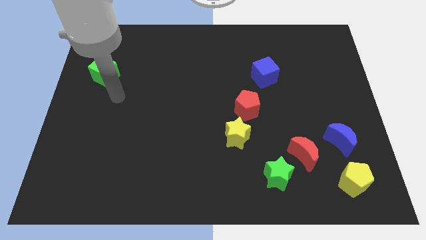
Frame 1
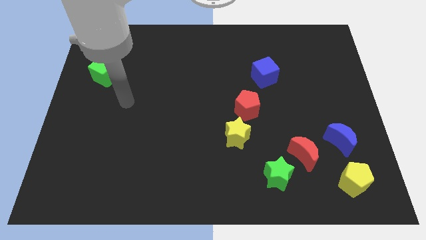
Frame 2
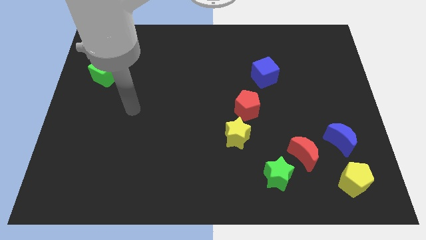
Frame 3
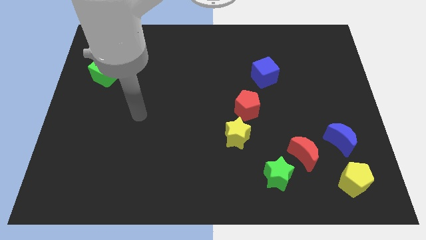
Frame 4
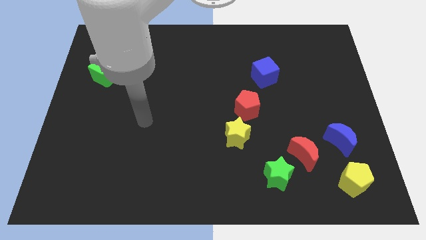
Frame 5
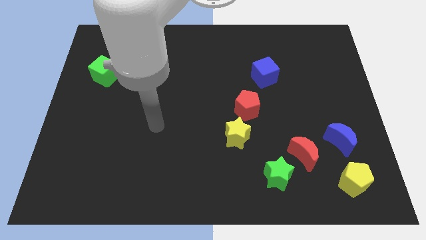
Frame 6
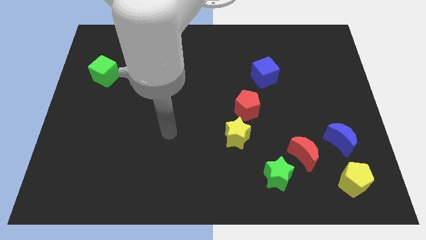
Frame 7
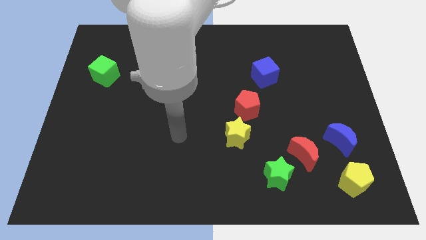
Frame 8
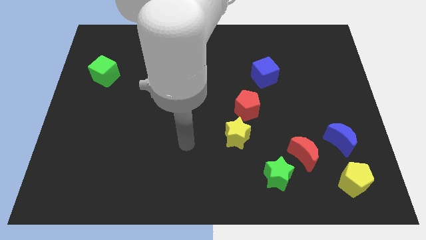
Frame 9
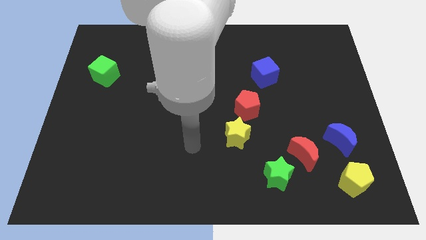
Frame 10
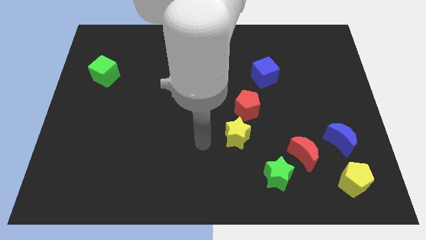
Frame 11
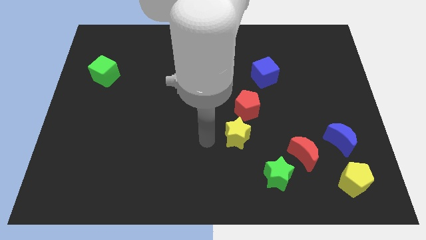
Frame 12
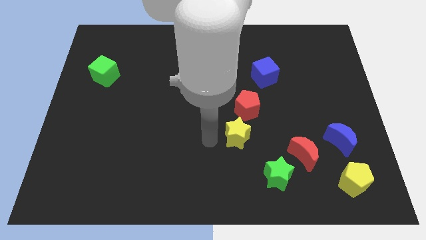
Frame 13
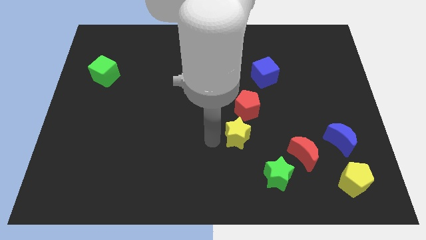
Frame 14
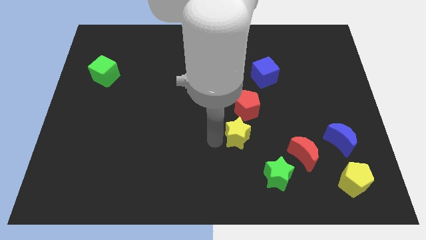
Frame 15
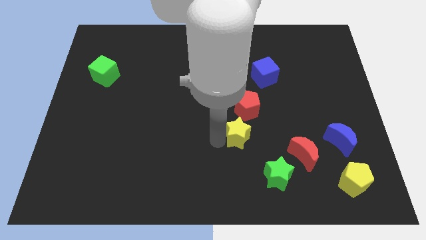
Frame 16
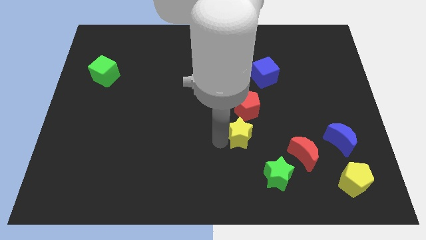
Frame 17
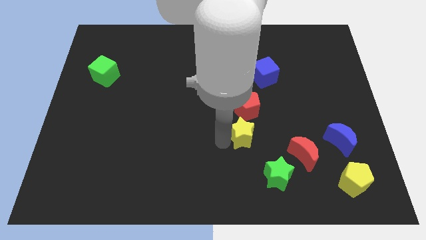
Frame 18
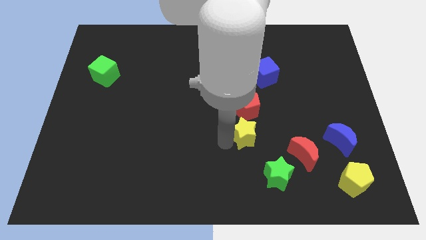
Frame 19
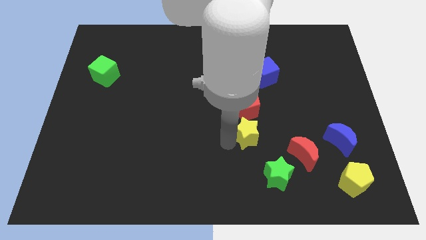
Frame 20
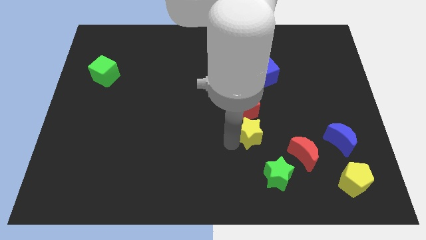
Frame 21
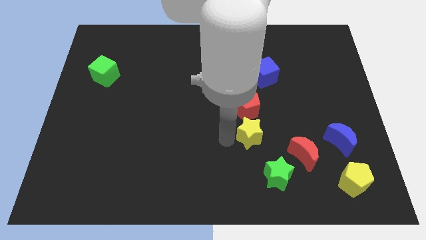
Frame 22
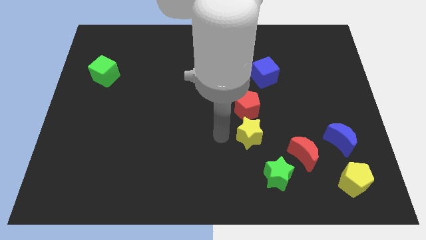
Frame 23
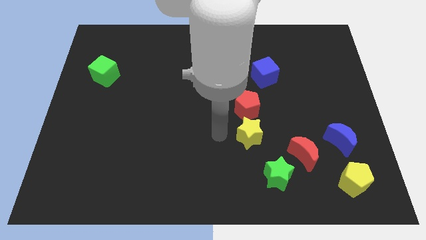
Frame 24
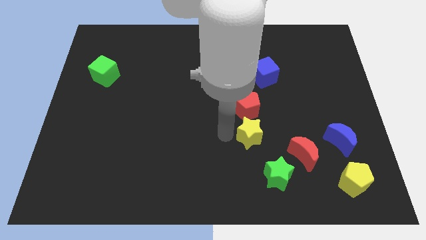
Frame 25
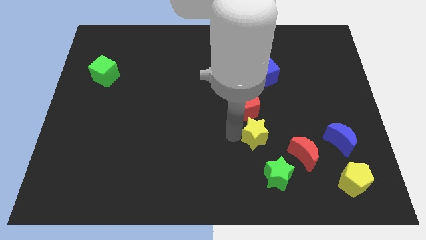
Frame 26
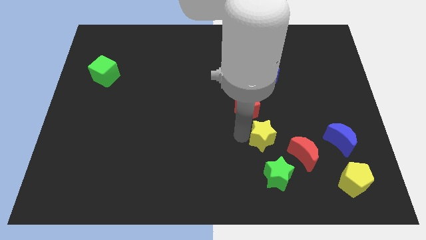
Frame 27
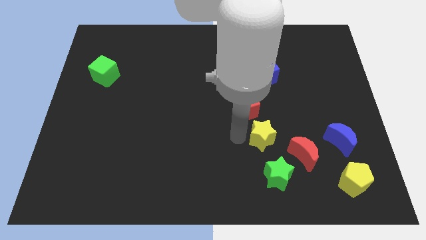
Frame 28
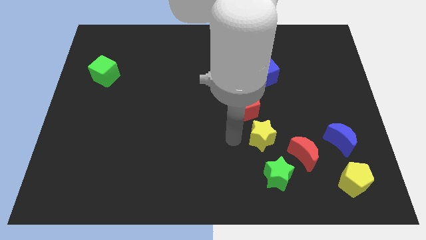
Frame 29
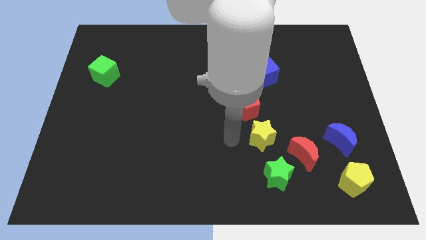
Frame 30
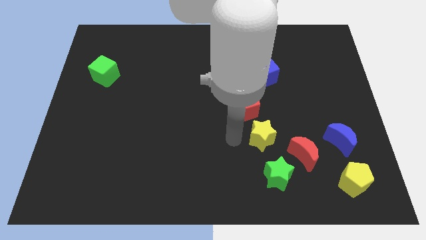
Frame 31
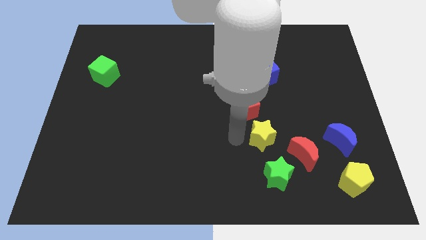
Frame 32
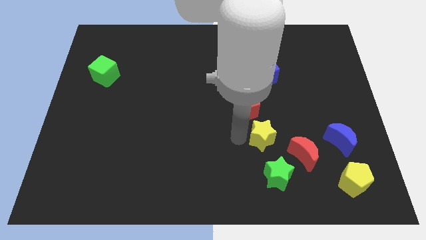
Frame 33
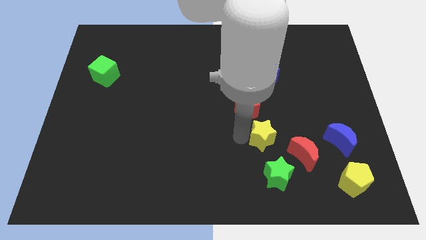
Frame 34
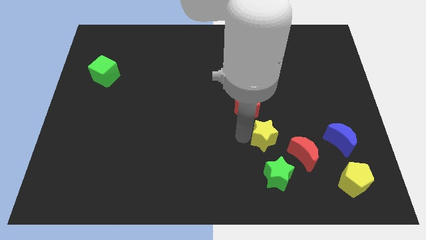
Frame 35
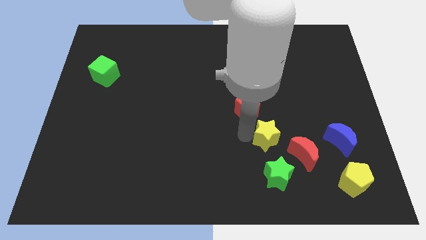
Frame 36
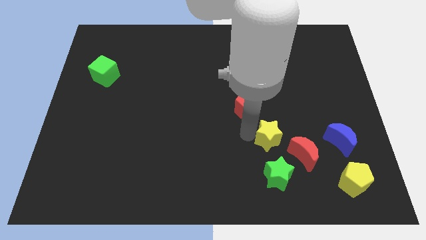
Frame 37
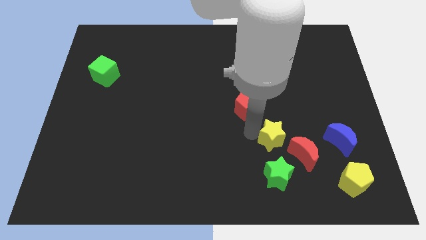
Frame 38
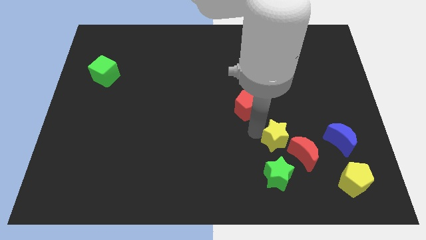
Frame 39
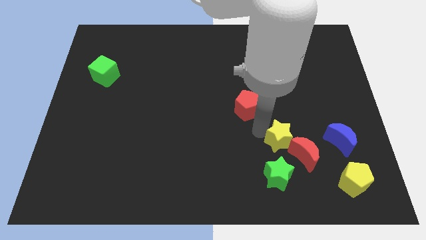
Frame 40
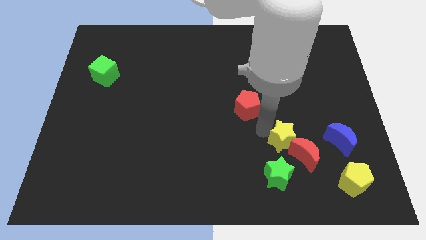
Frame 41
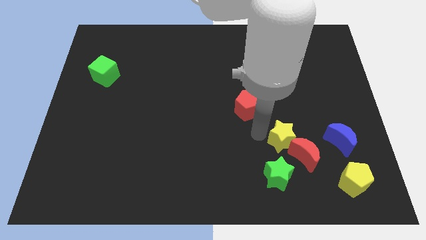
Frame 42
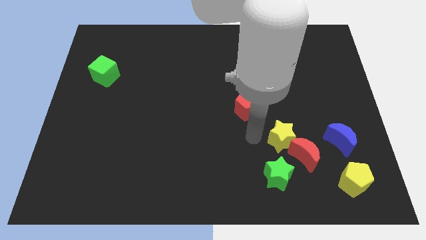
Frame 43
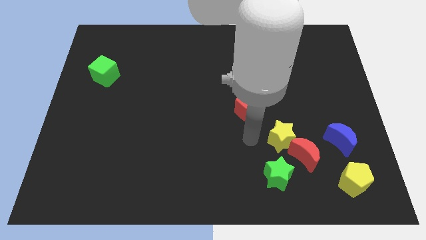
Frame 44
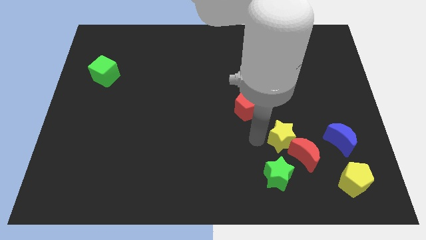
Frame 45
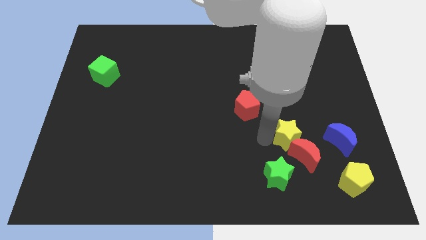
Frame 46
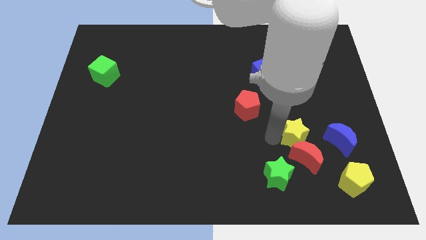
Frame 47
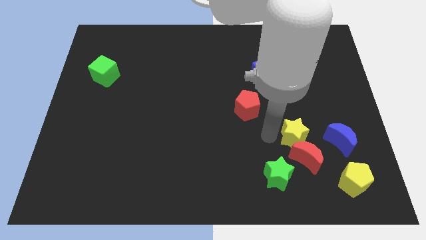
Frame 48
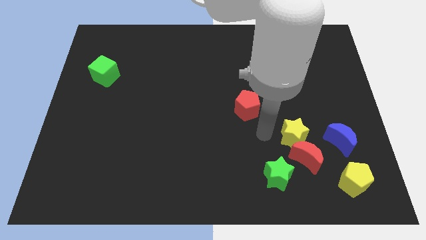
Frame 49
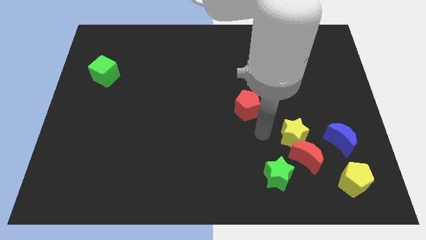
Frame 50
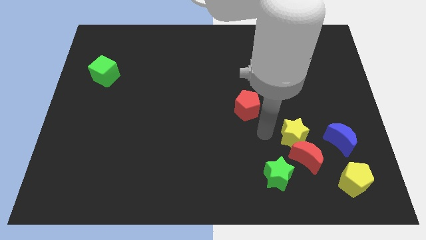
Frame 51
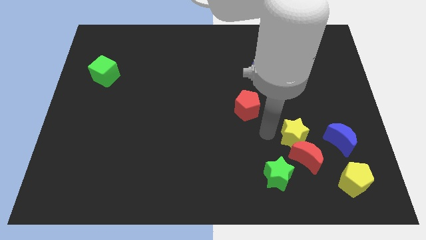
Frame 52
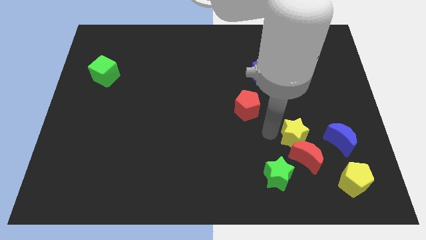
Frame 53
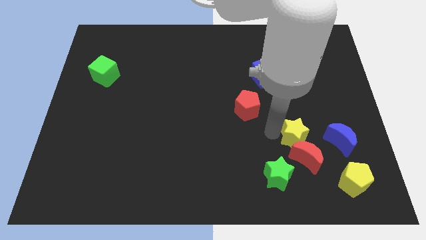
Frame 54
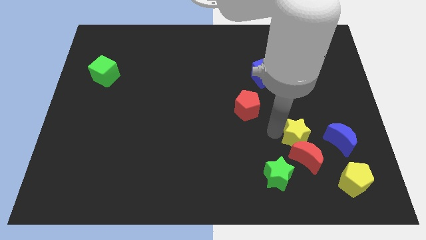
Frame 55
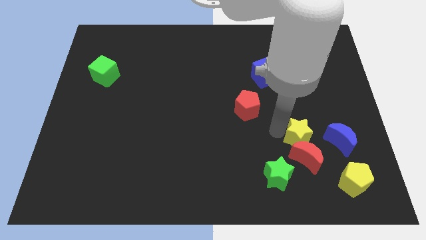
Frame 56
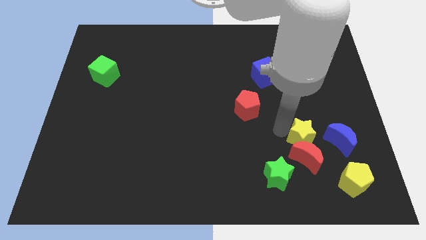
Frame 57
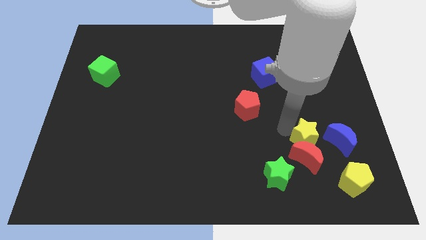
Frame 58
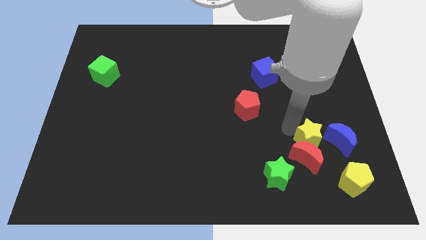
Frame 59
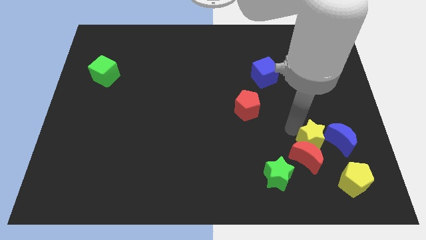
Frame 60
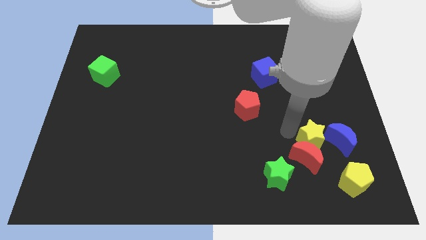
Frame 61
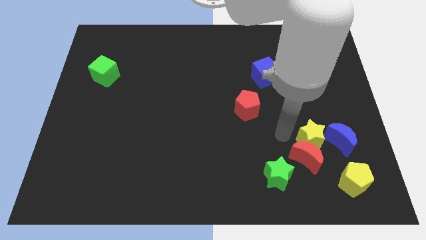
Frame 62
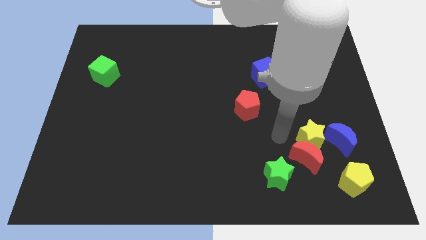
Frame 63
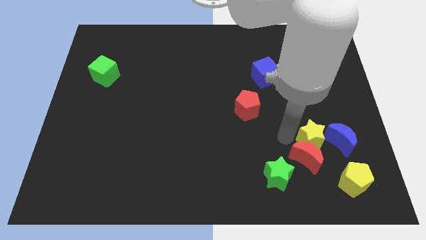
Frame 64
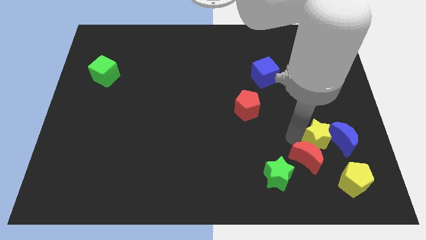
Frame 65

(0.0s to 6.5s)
put the yellow star next to the blue moon
